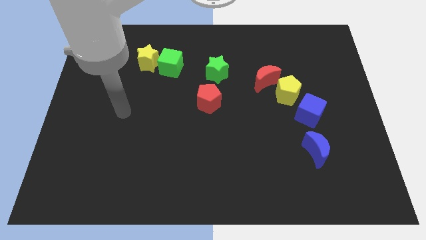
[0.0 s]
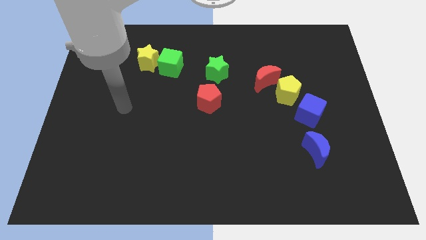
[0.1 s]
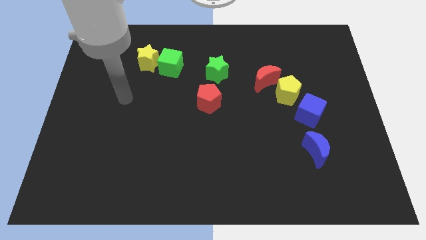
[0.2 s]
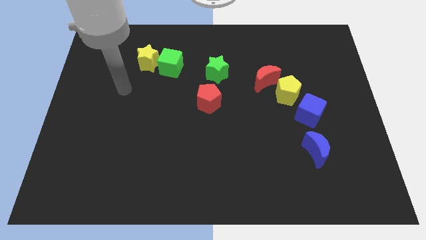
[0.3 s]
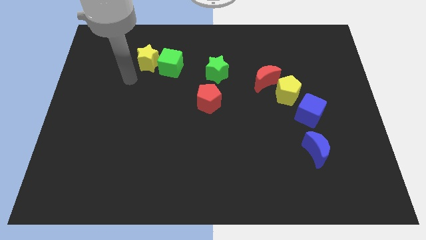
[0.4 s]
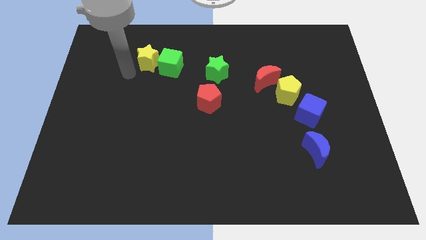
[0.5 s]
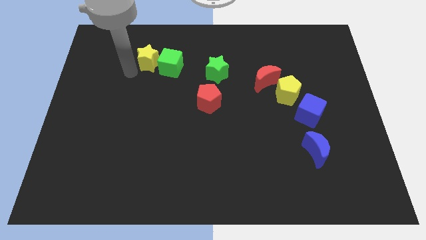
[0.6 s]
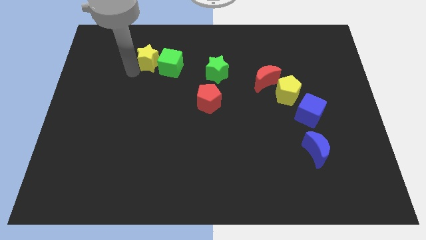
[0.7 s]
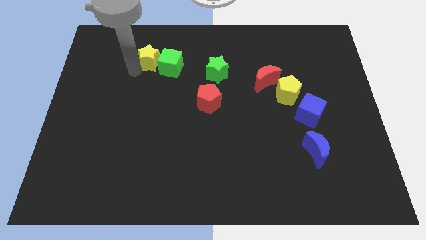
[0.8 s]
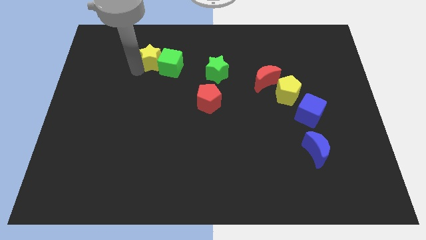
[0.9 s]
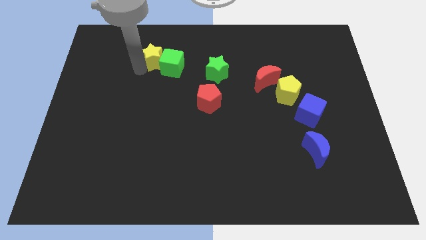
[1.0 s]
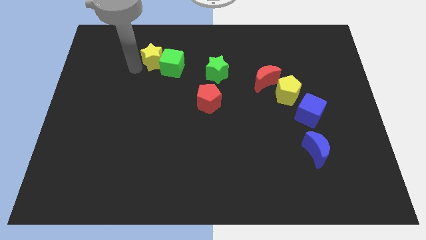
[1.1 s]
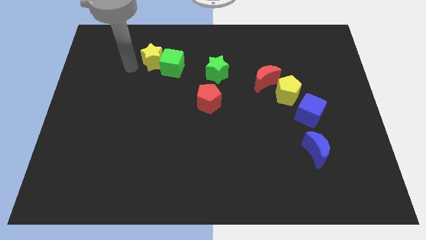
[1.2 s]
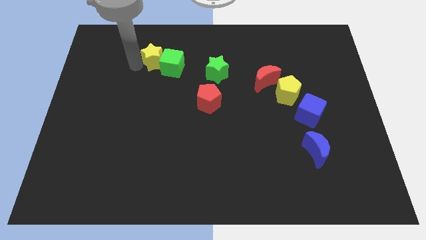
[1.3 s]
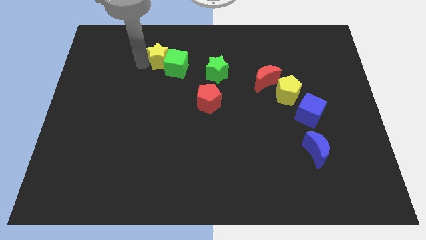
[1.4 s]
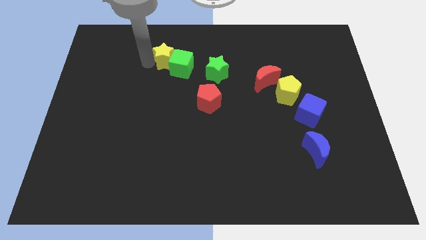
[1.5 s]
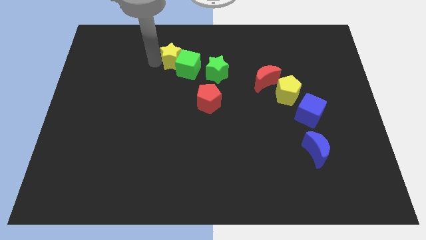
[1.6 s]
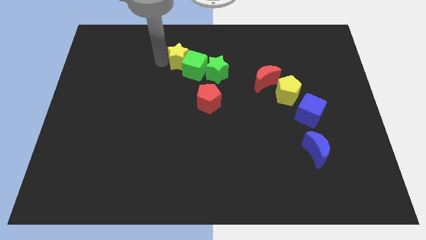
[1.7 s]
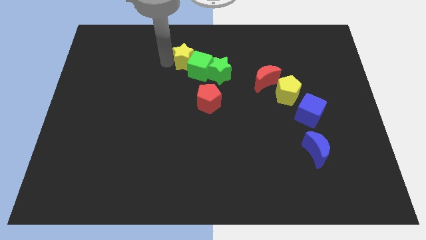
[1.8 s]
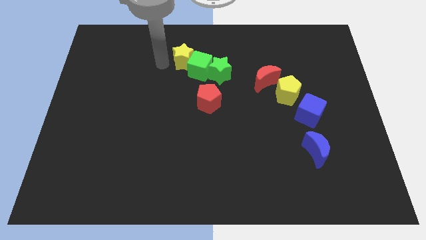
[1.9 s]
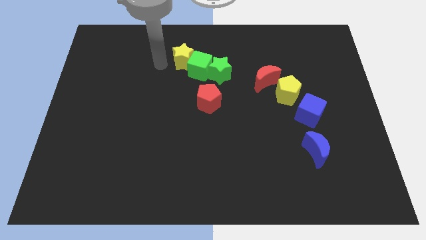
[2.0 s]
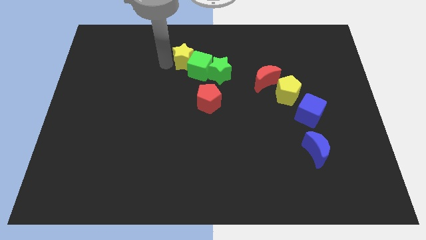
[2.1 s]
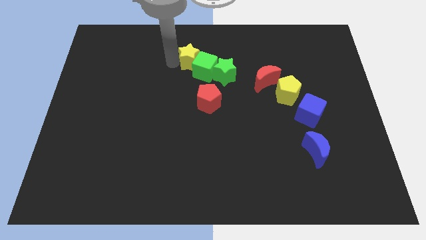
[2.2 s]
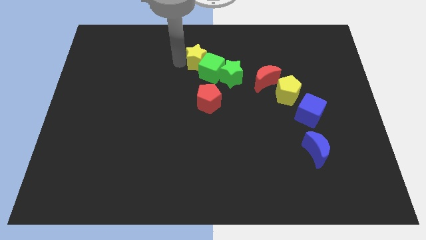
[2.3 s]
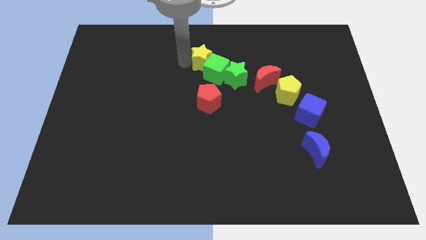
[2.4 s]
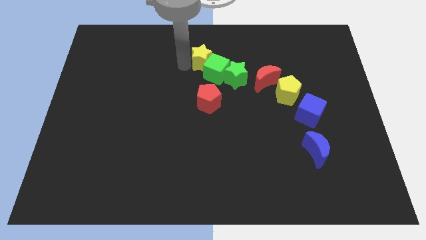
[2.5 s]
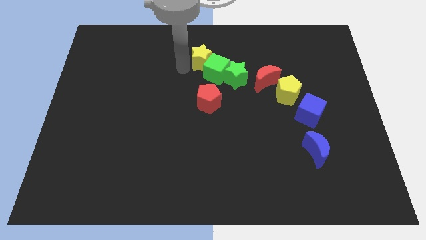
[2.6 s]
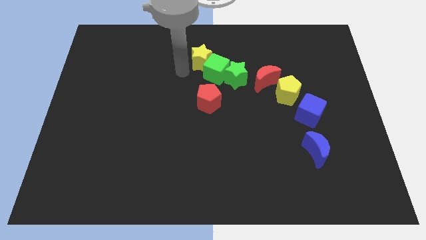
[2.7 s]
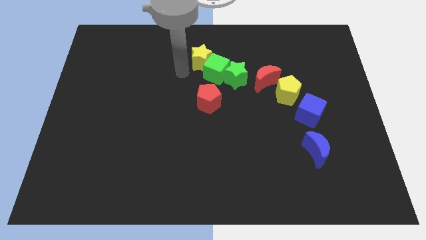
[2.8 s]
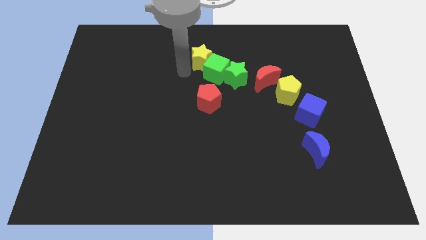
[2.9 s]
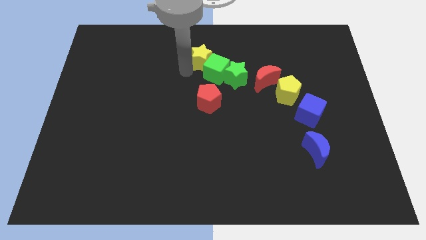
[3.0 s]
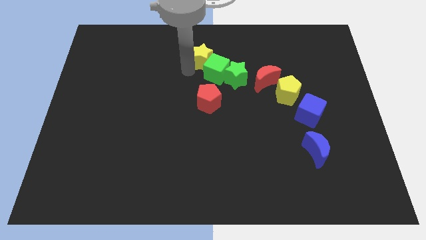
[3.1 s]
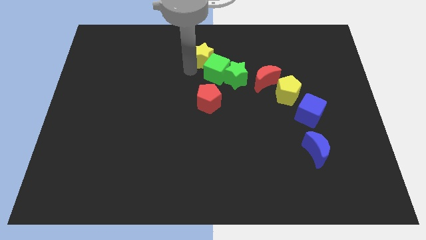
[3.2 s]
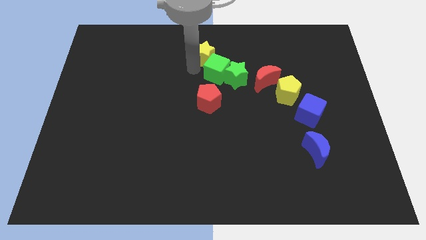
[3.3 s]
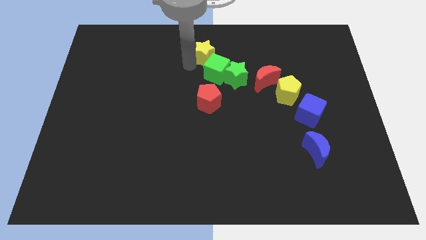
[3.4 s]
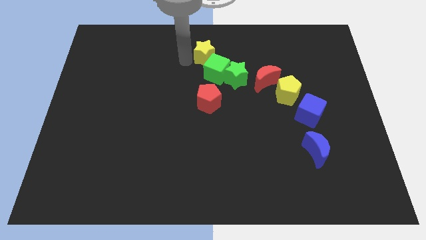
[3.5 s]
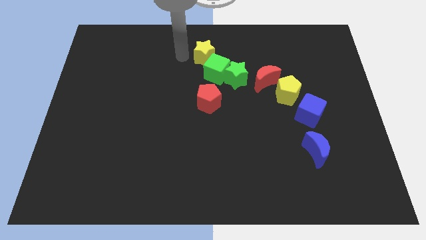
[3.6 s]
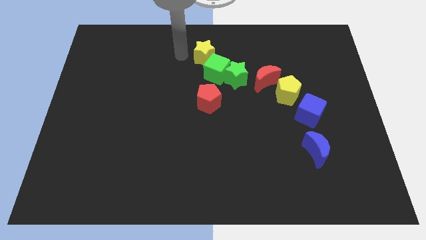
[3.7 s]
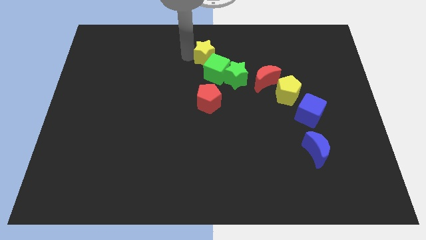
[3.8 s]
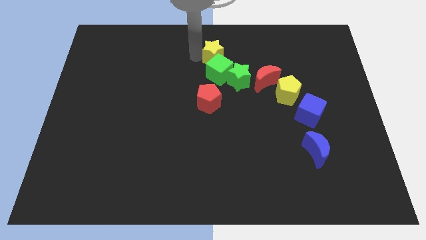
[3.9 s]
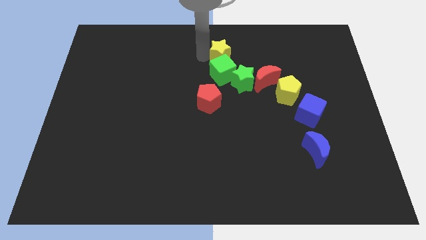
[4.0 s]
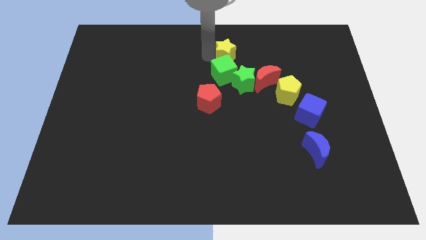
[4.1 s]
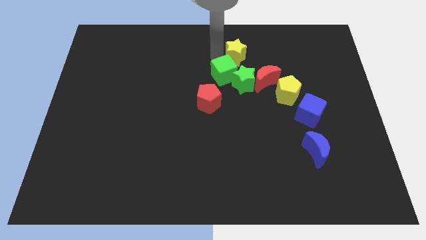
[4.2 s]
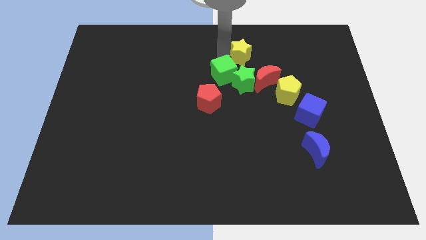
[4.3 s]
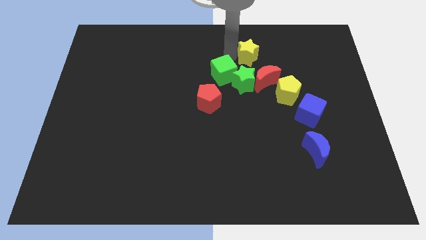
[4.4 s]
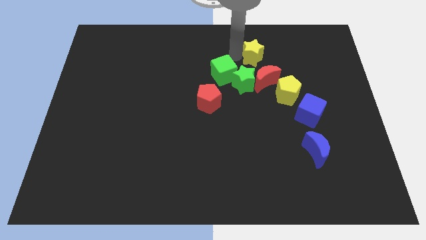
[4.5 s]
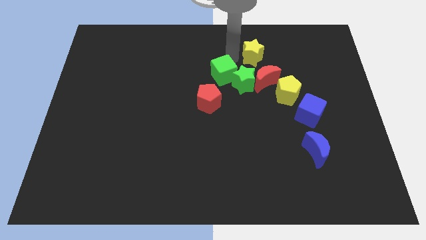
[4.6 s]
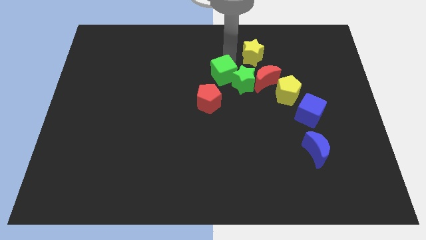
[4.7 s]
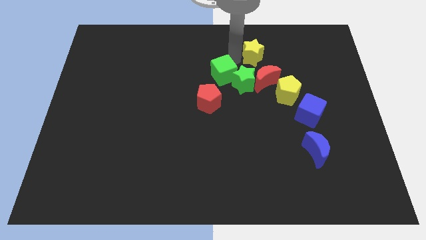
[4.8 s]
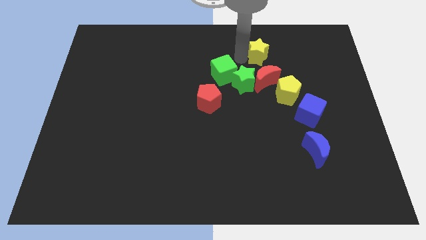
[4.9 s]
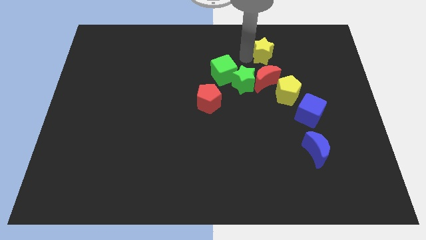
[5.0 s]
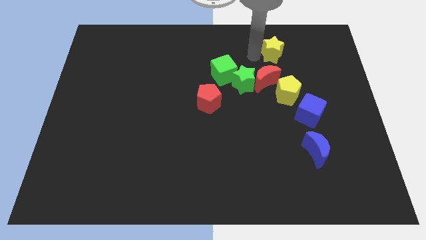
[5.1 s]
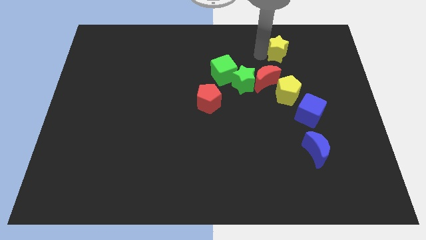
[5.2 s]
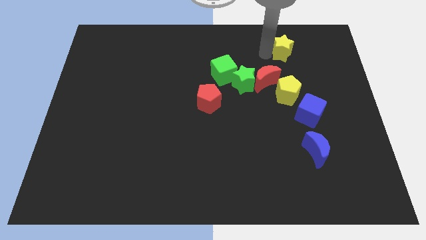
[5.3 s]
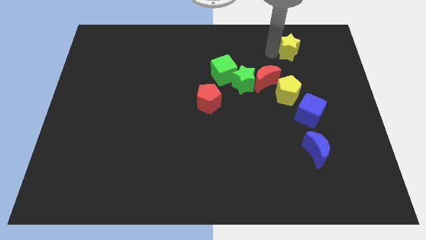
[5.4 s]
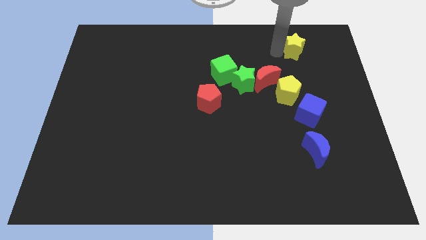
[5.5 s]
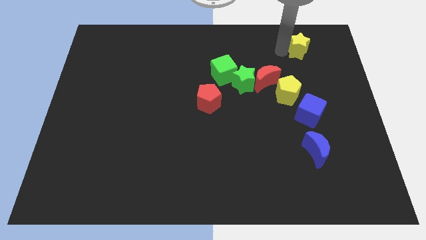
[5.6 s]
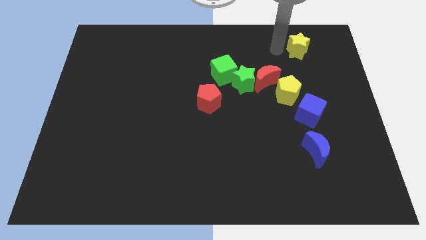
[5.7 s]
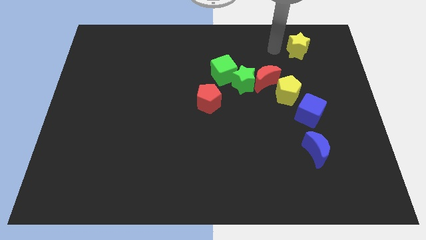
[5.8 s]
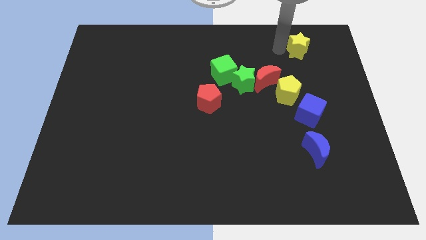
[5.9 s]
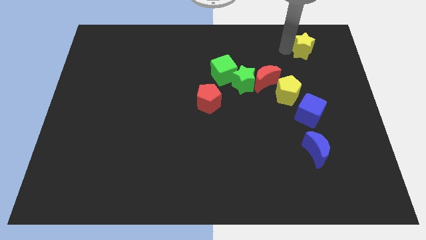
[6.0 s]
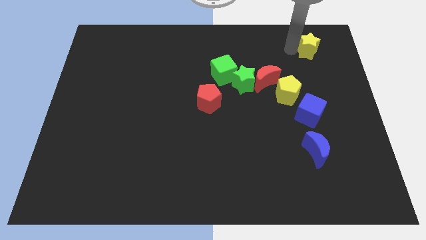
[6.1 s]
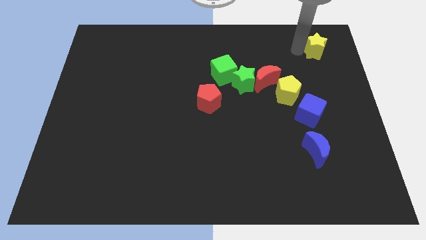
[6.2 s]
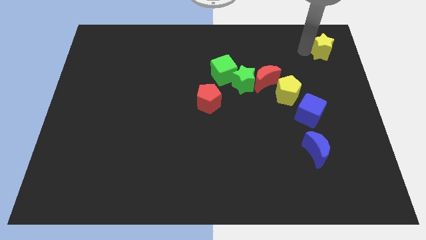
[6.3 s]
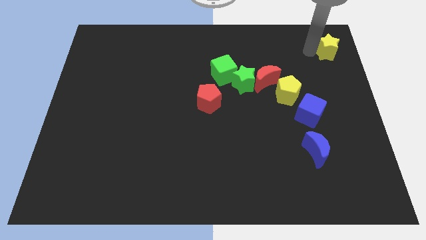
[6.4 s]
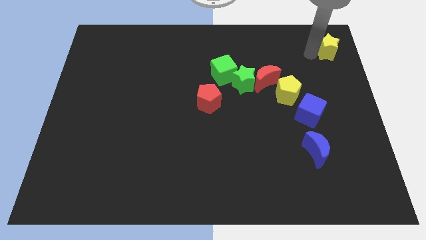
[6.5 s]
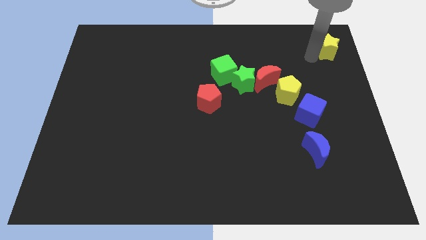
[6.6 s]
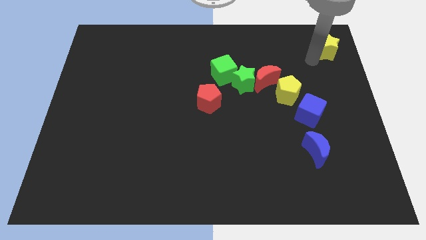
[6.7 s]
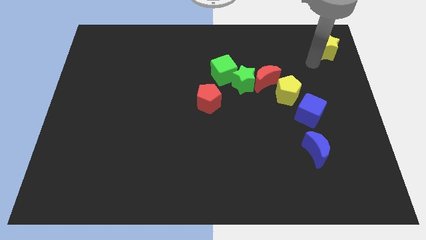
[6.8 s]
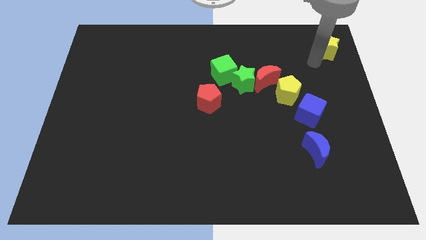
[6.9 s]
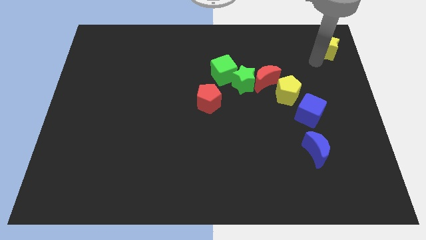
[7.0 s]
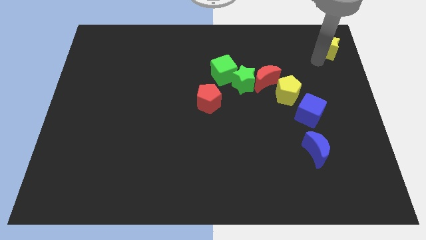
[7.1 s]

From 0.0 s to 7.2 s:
put the yellow star to the upper right corner
